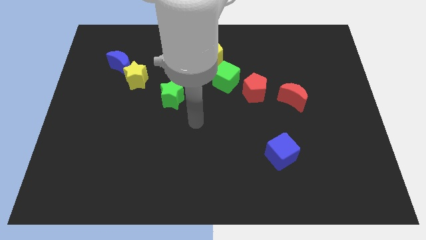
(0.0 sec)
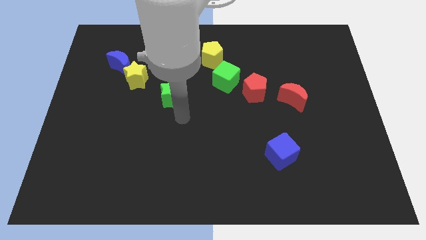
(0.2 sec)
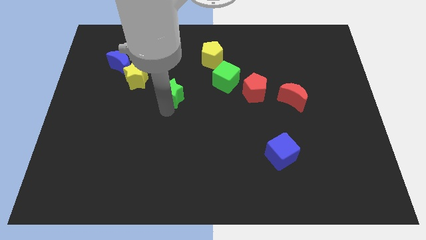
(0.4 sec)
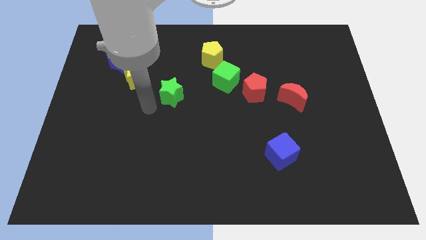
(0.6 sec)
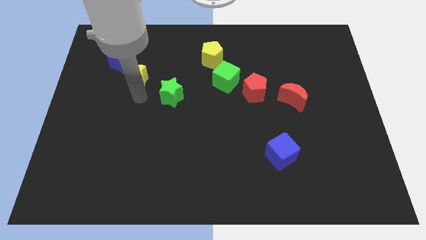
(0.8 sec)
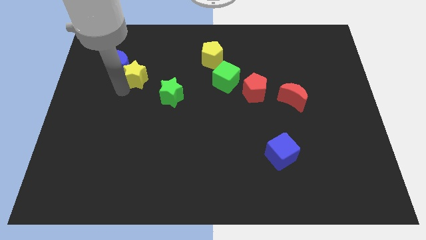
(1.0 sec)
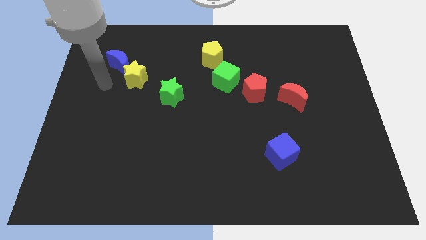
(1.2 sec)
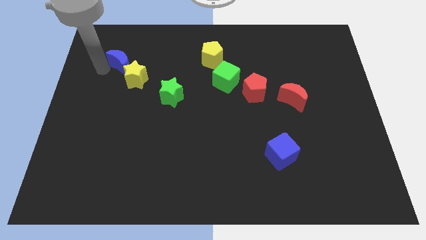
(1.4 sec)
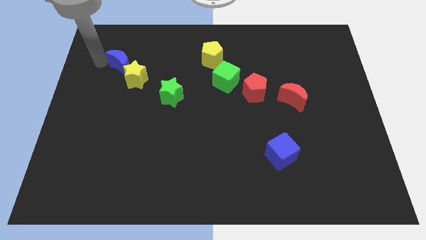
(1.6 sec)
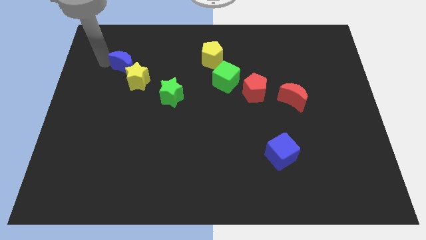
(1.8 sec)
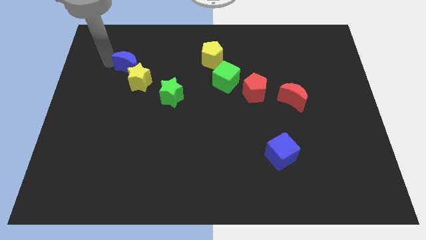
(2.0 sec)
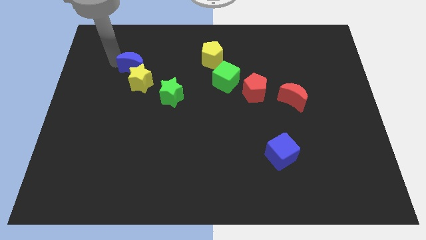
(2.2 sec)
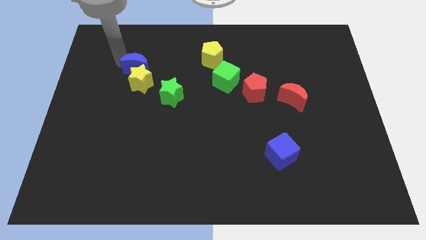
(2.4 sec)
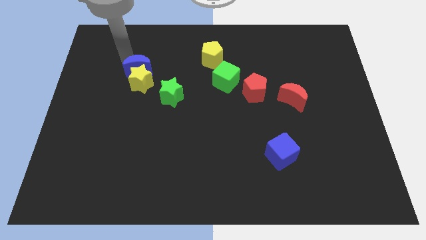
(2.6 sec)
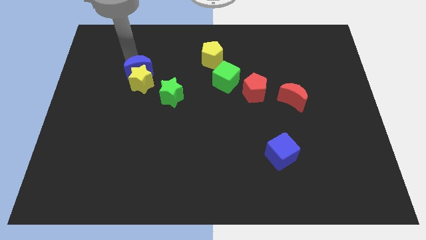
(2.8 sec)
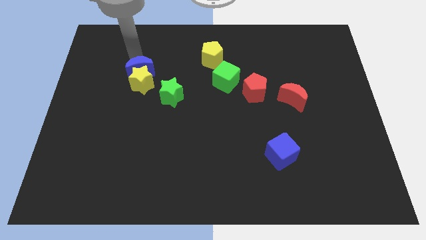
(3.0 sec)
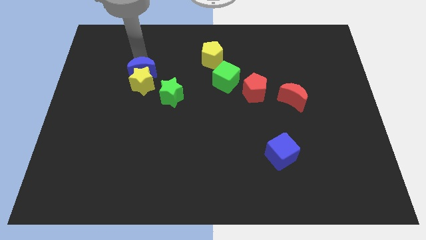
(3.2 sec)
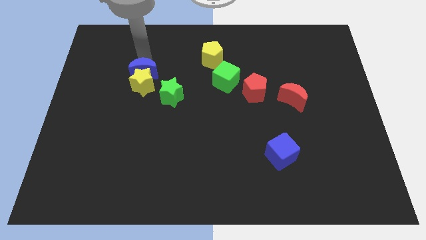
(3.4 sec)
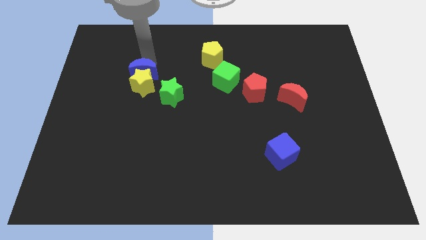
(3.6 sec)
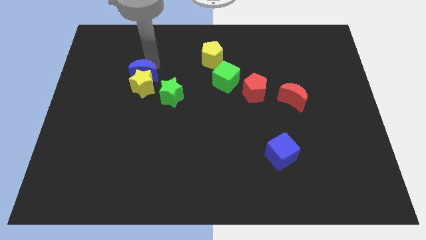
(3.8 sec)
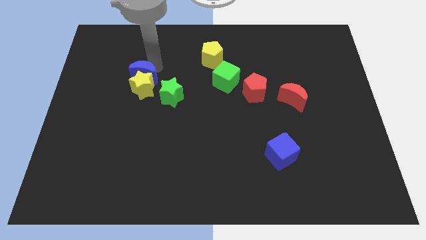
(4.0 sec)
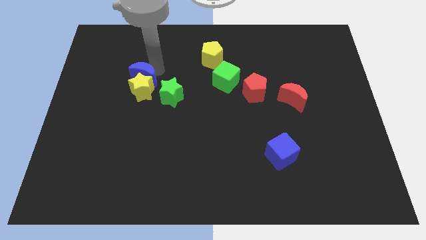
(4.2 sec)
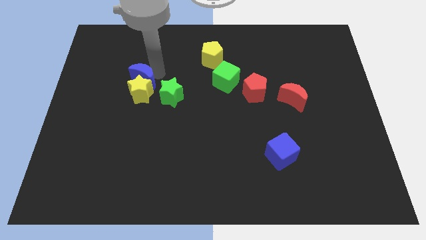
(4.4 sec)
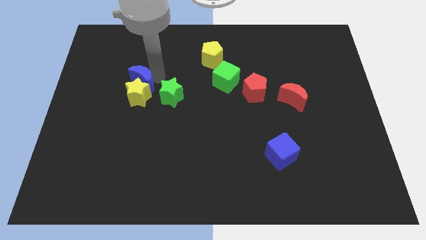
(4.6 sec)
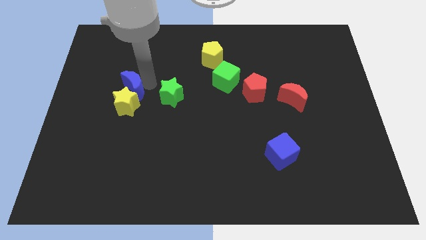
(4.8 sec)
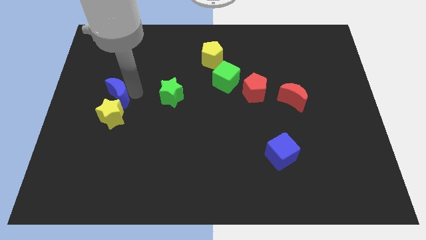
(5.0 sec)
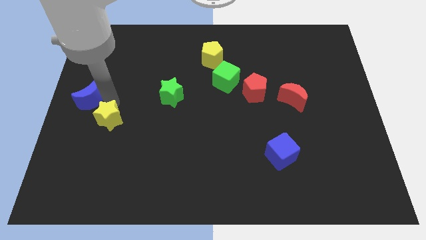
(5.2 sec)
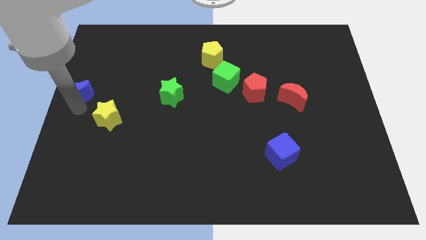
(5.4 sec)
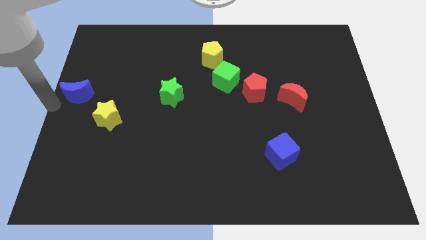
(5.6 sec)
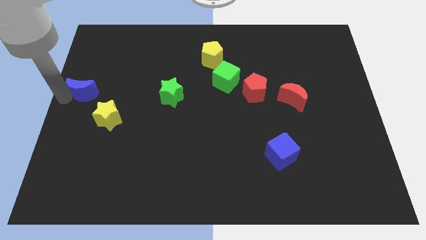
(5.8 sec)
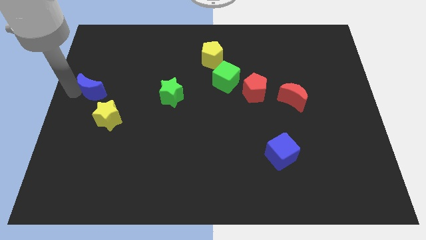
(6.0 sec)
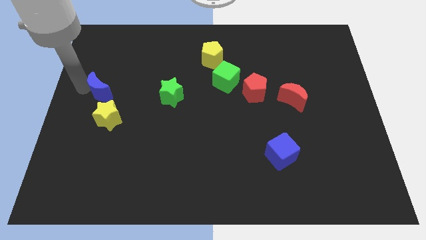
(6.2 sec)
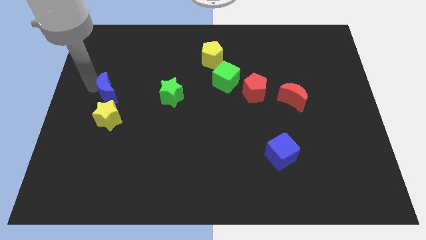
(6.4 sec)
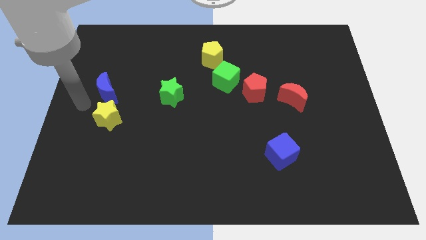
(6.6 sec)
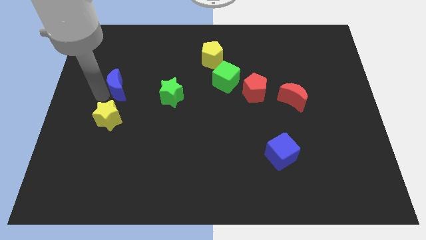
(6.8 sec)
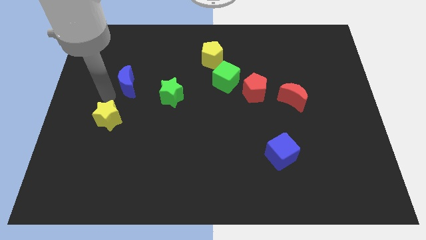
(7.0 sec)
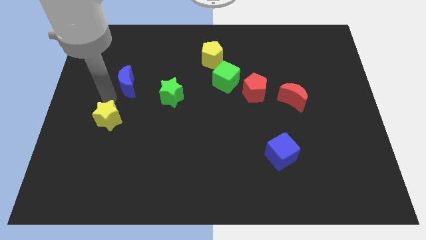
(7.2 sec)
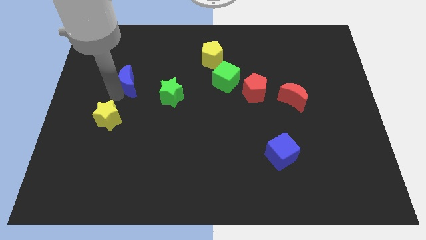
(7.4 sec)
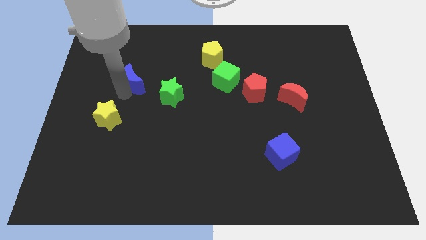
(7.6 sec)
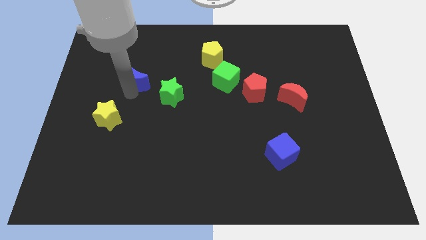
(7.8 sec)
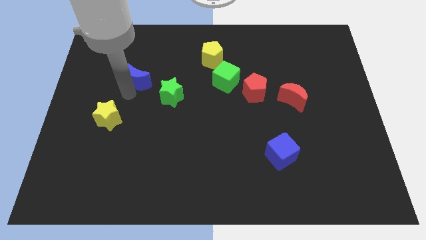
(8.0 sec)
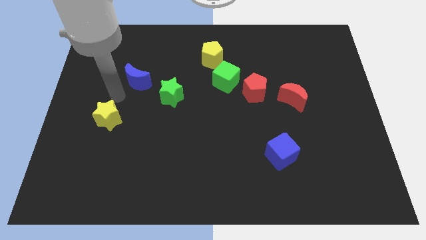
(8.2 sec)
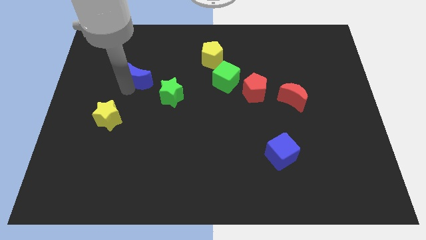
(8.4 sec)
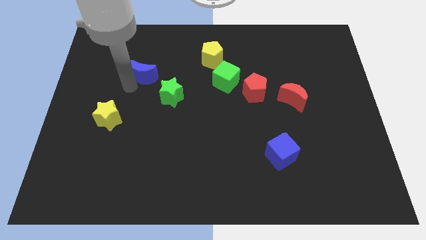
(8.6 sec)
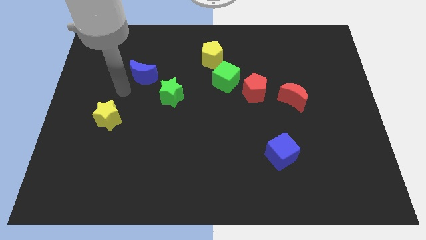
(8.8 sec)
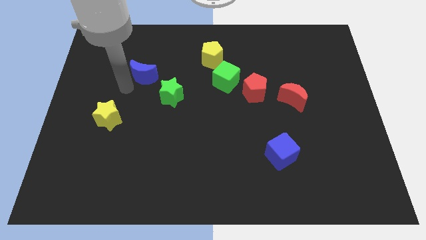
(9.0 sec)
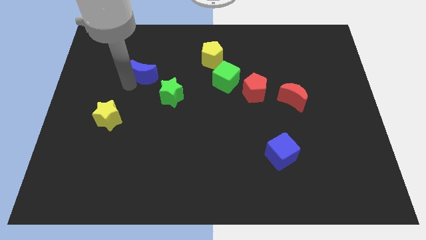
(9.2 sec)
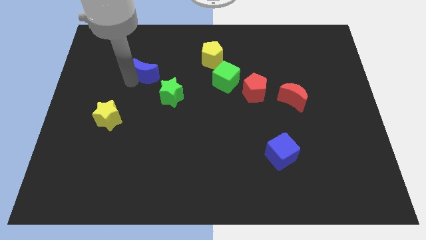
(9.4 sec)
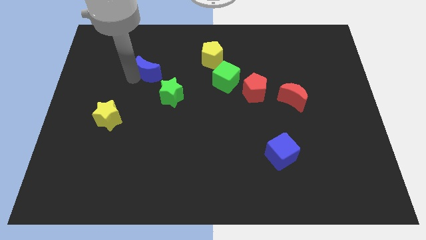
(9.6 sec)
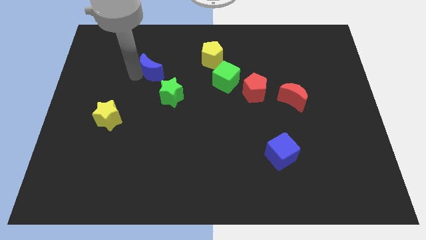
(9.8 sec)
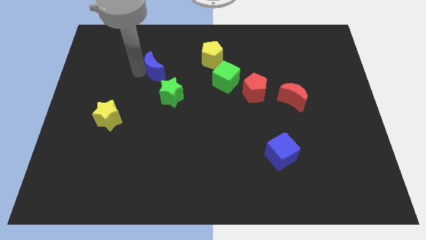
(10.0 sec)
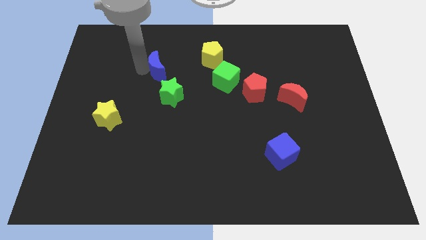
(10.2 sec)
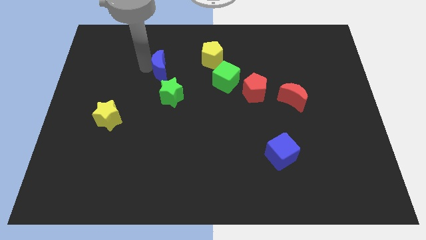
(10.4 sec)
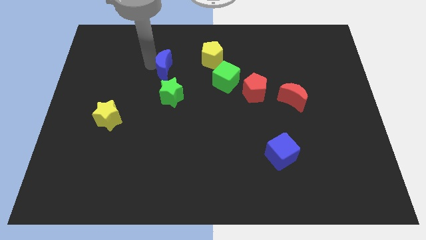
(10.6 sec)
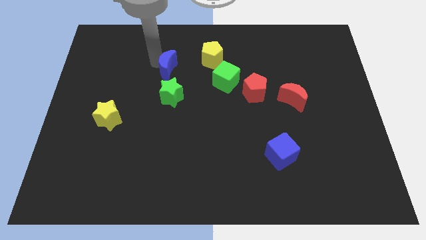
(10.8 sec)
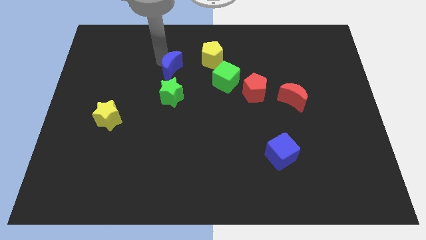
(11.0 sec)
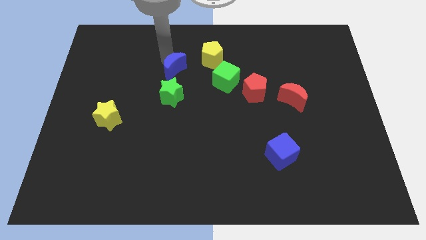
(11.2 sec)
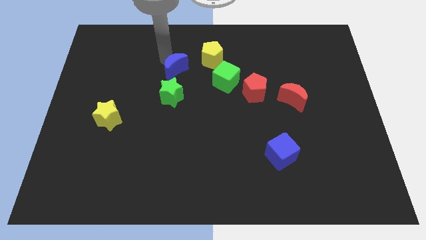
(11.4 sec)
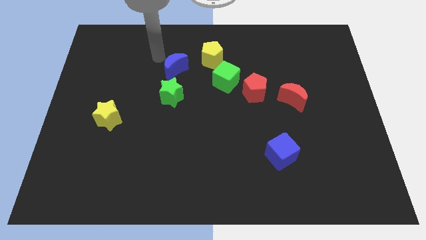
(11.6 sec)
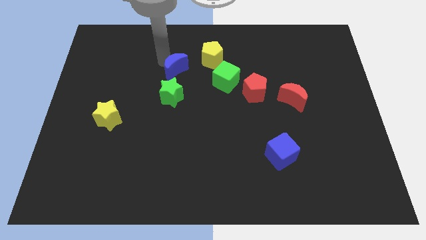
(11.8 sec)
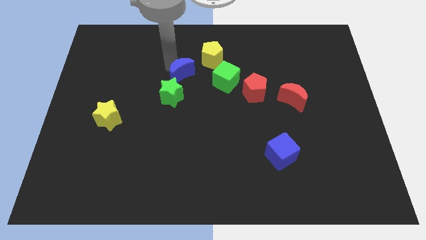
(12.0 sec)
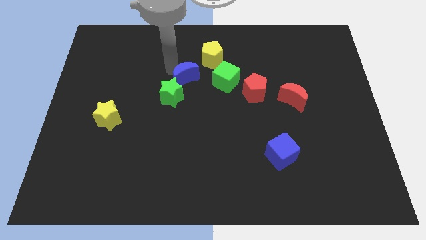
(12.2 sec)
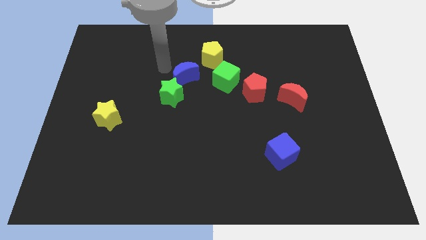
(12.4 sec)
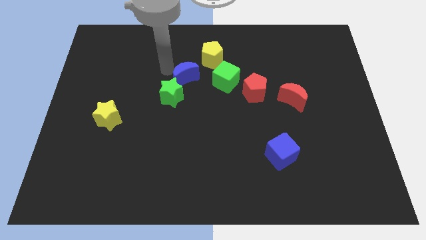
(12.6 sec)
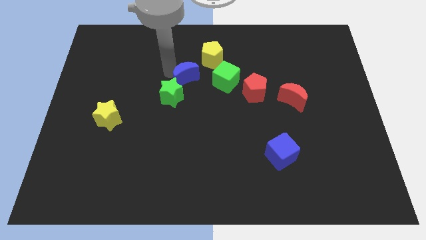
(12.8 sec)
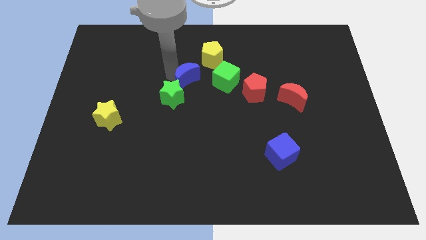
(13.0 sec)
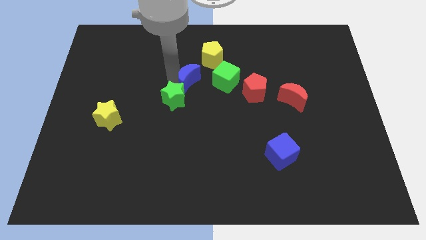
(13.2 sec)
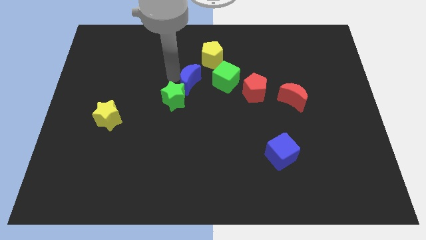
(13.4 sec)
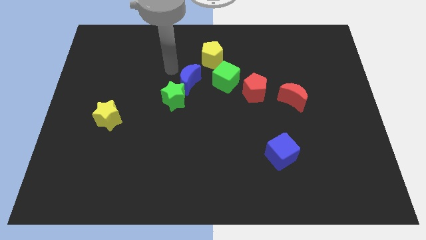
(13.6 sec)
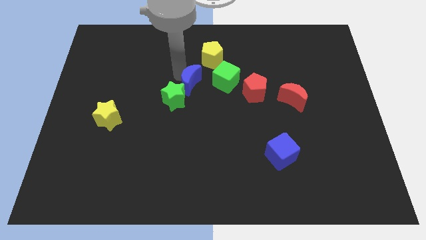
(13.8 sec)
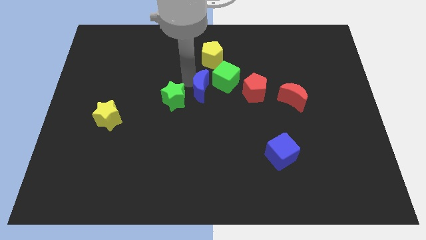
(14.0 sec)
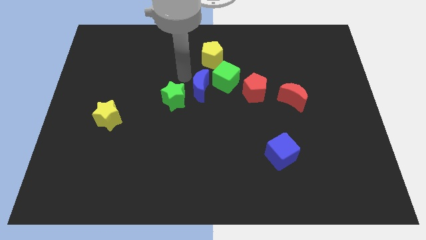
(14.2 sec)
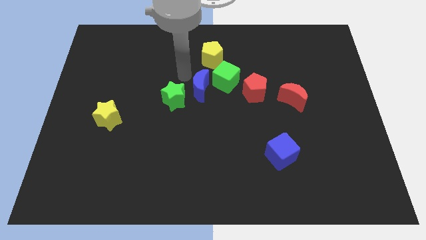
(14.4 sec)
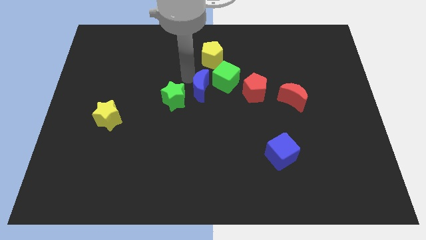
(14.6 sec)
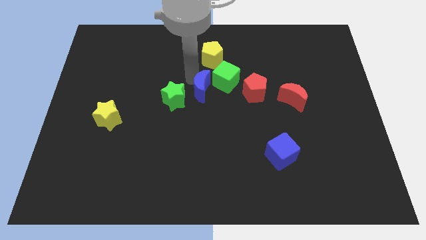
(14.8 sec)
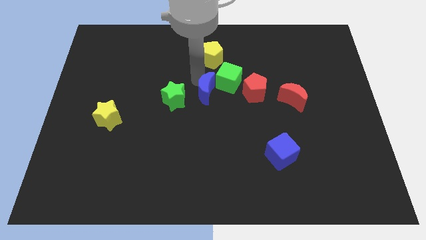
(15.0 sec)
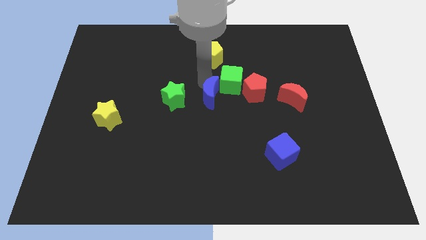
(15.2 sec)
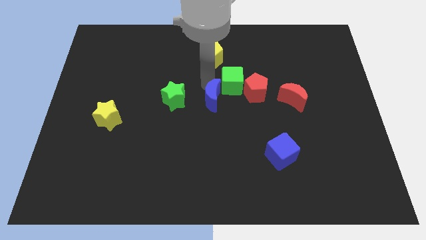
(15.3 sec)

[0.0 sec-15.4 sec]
move the blue moon to the bottom of the green cube
